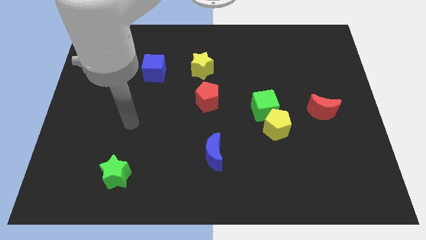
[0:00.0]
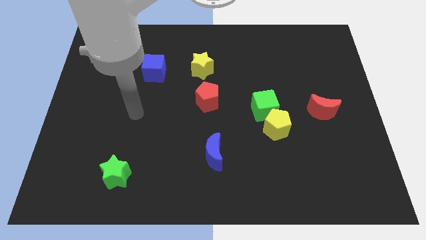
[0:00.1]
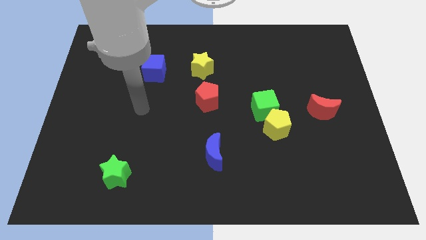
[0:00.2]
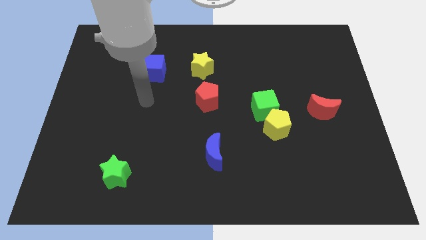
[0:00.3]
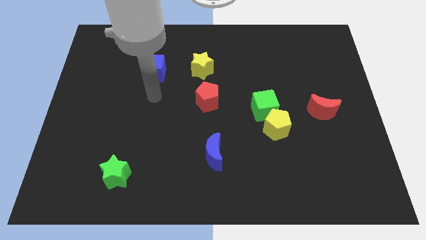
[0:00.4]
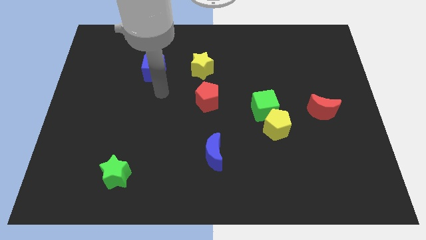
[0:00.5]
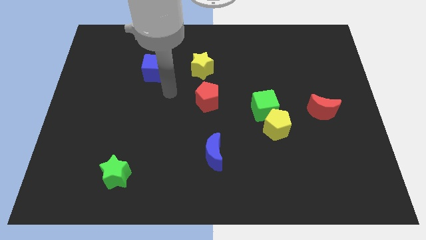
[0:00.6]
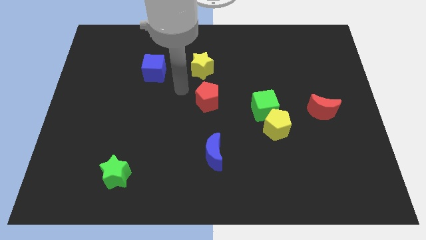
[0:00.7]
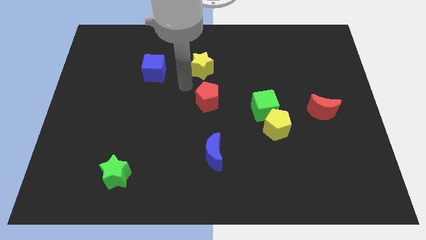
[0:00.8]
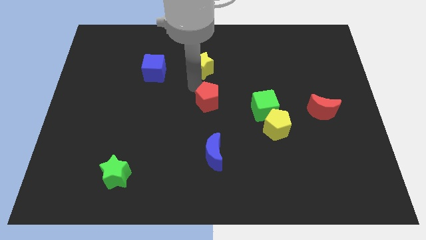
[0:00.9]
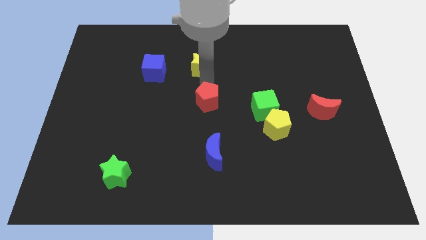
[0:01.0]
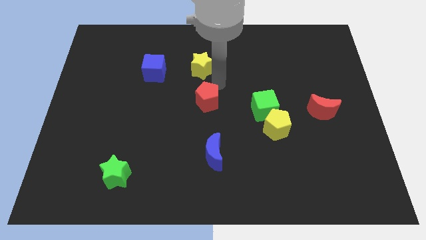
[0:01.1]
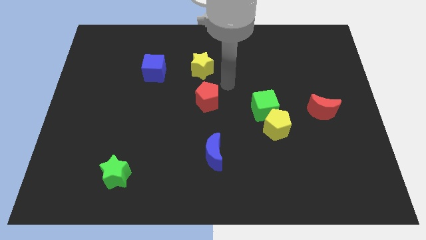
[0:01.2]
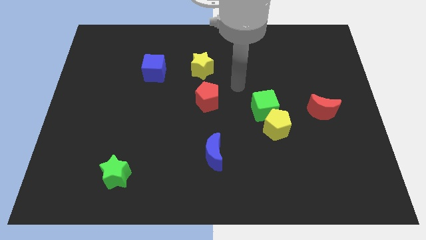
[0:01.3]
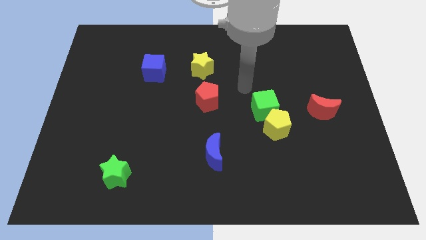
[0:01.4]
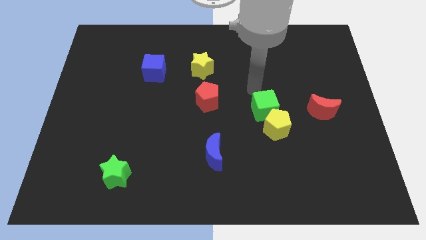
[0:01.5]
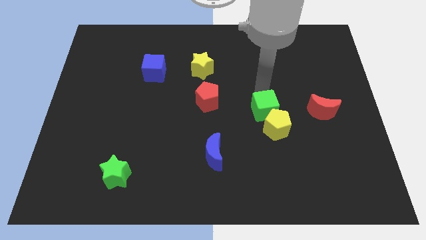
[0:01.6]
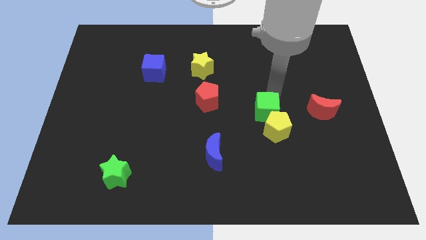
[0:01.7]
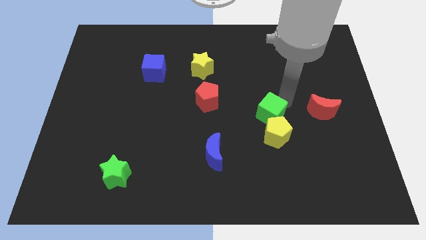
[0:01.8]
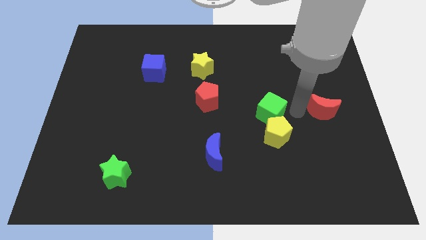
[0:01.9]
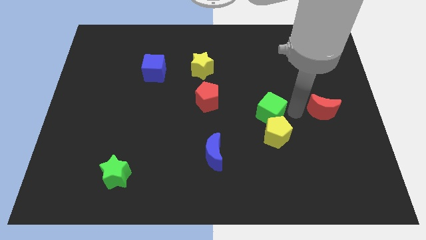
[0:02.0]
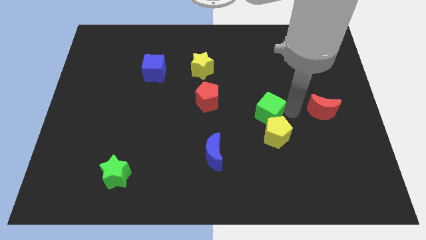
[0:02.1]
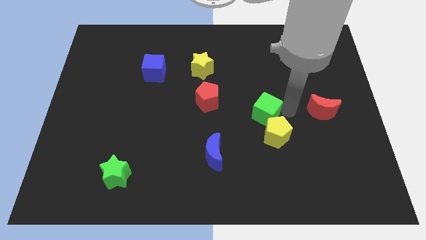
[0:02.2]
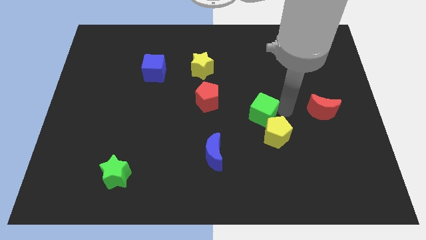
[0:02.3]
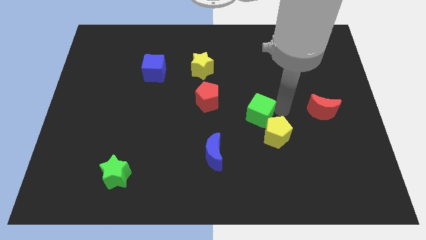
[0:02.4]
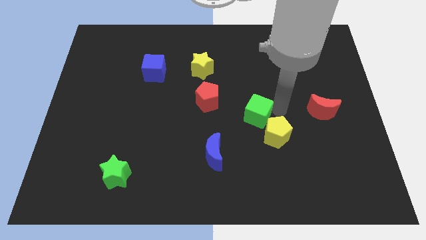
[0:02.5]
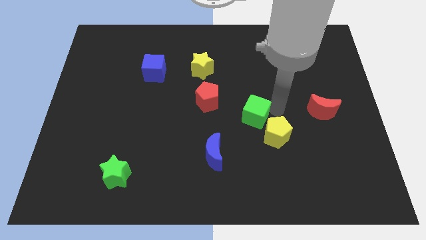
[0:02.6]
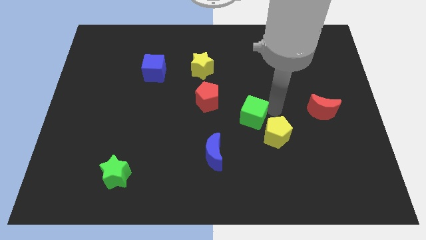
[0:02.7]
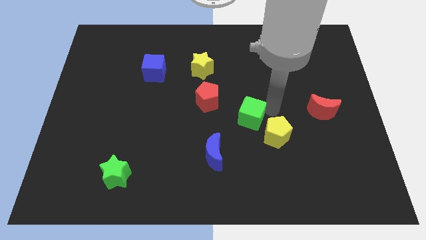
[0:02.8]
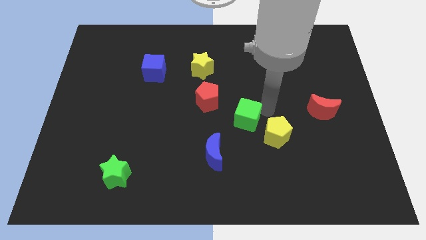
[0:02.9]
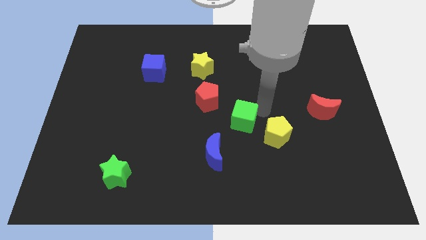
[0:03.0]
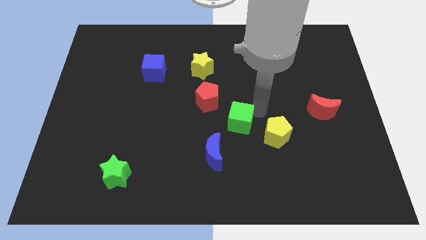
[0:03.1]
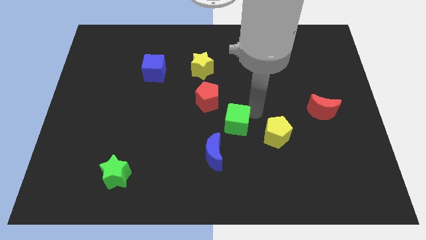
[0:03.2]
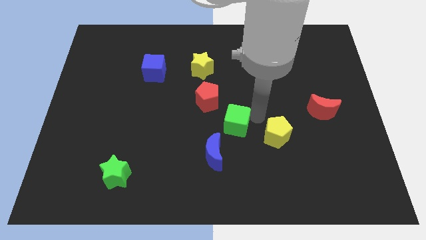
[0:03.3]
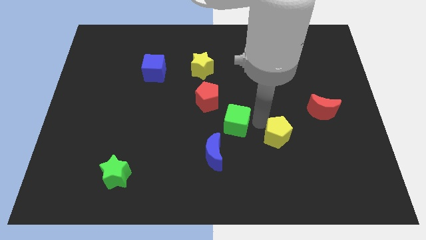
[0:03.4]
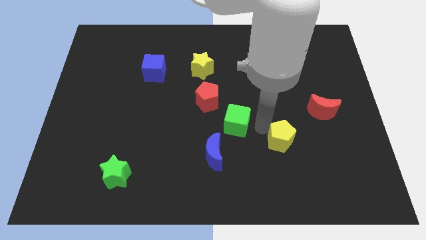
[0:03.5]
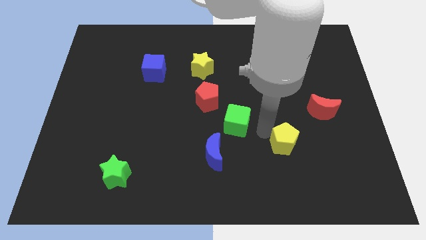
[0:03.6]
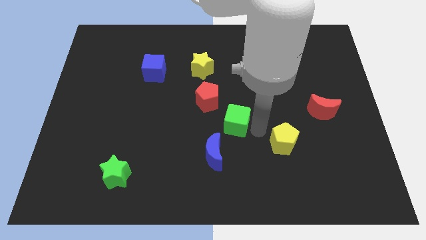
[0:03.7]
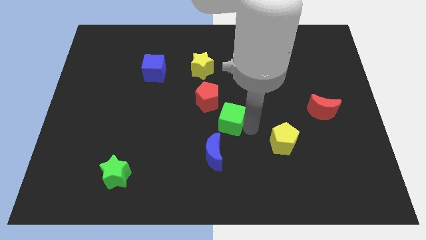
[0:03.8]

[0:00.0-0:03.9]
slide the green cube to the left a little

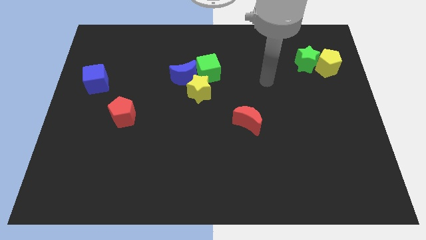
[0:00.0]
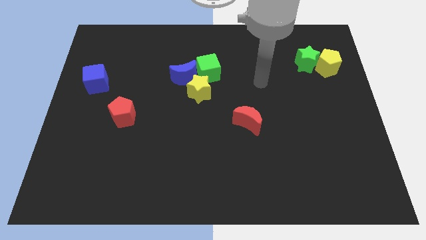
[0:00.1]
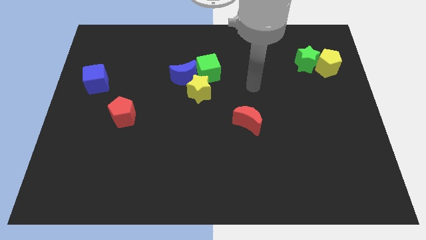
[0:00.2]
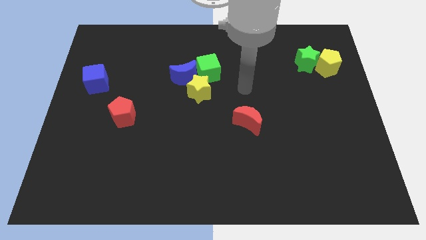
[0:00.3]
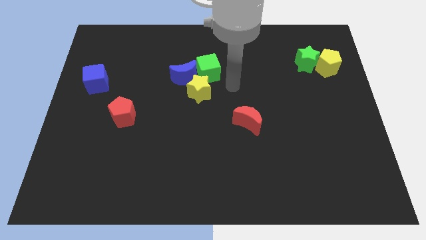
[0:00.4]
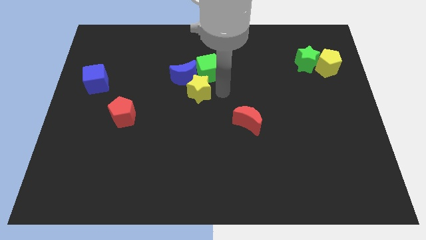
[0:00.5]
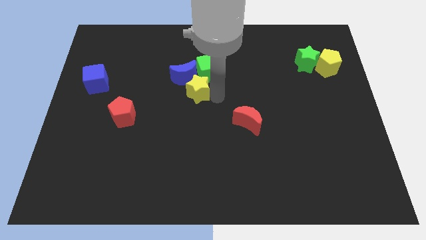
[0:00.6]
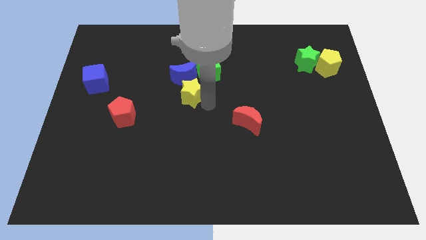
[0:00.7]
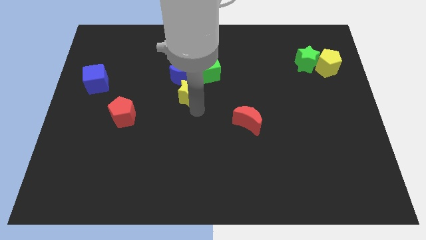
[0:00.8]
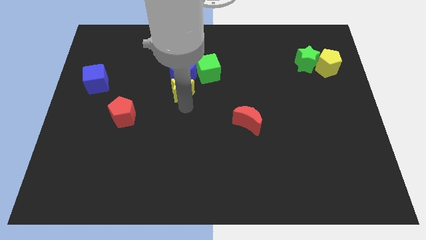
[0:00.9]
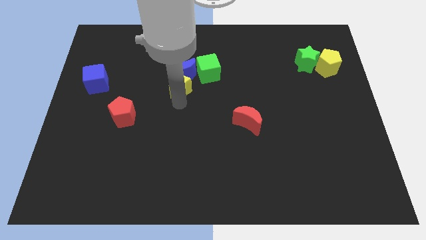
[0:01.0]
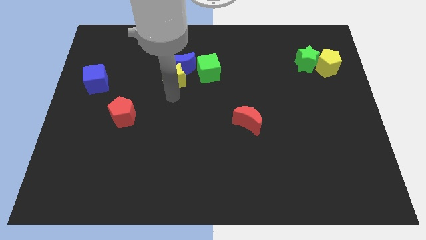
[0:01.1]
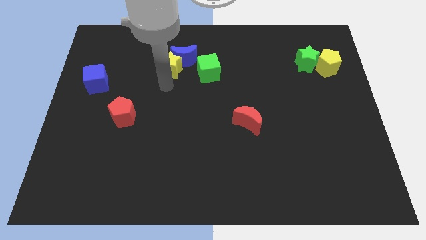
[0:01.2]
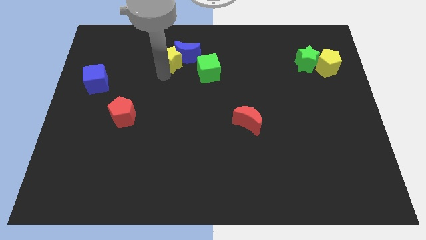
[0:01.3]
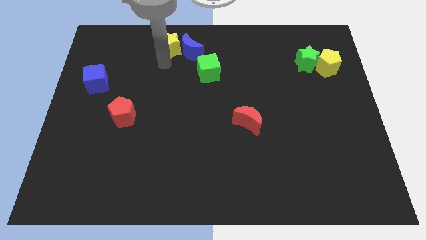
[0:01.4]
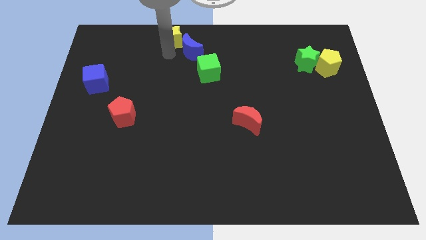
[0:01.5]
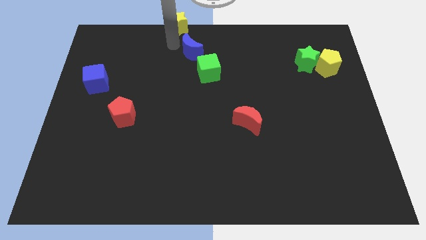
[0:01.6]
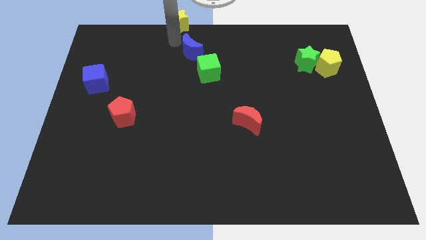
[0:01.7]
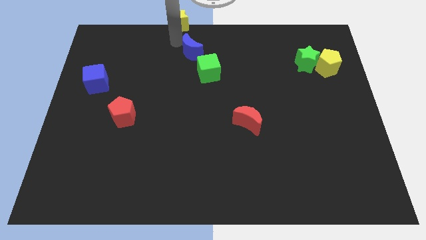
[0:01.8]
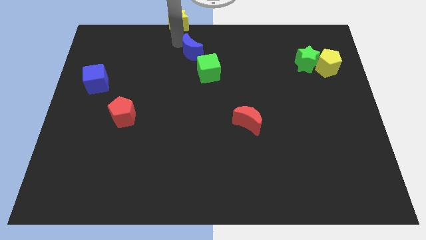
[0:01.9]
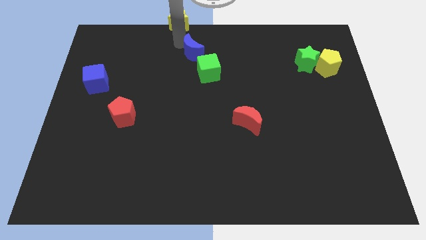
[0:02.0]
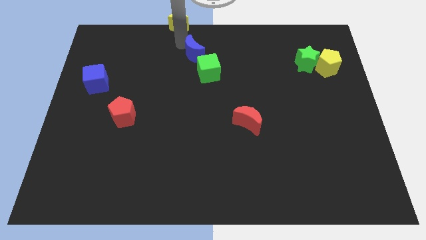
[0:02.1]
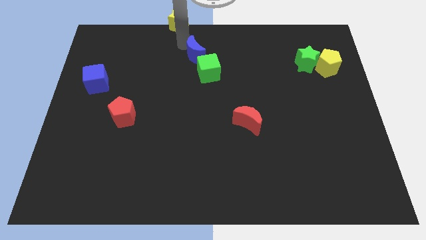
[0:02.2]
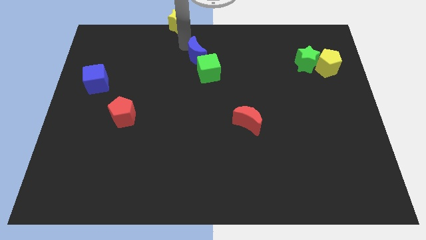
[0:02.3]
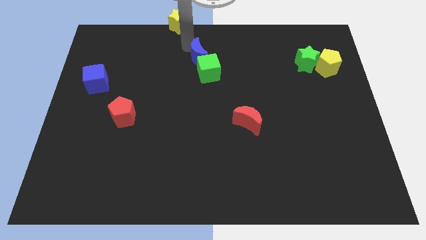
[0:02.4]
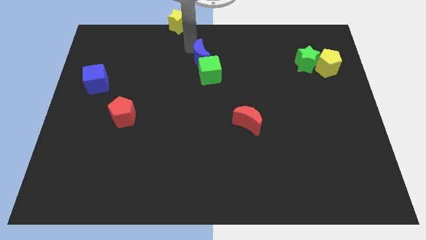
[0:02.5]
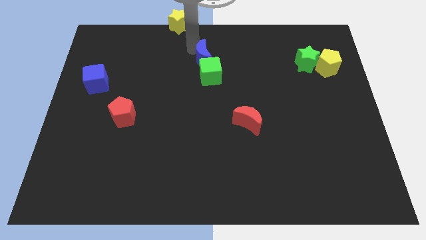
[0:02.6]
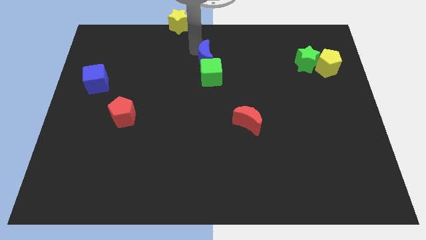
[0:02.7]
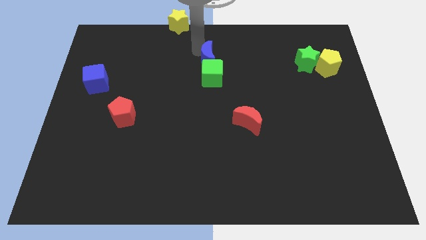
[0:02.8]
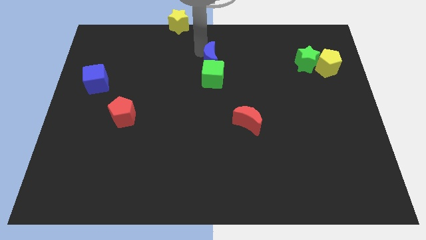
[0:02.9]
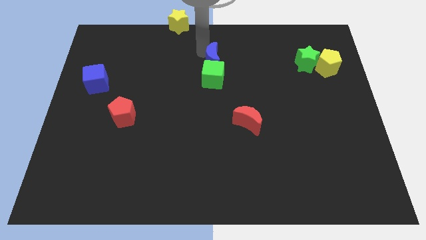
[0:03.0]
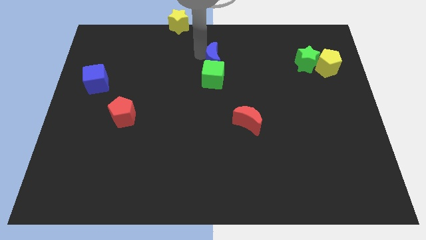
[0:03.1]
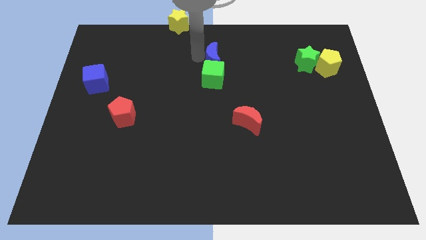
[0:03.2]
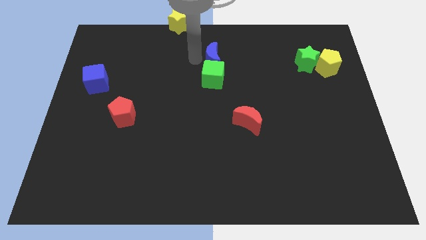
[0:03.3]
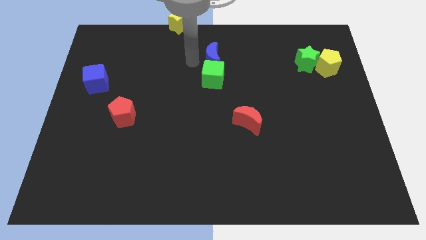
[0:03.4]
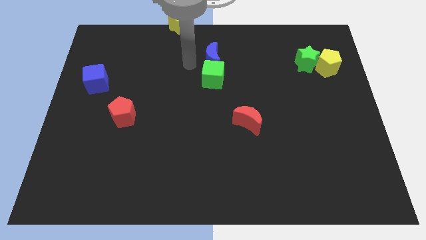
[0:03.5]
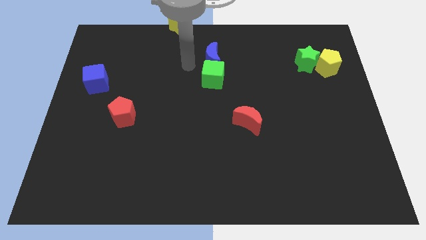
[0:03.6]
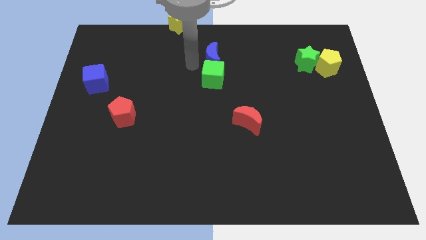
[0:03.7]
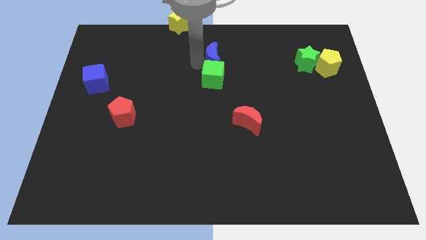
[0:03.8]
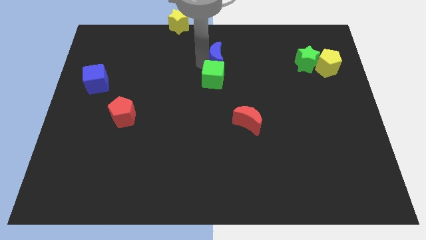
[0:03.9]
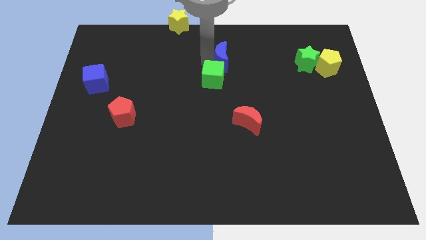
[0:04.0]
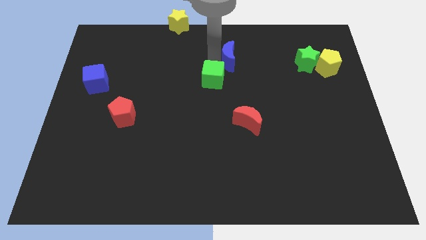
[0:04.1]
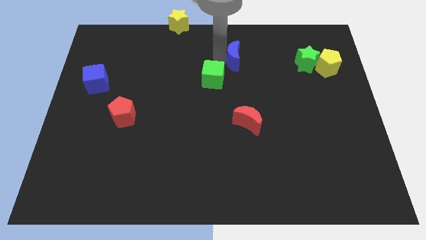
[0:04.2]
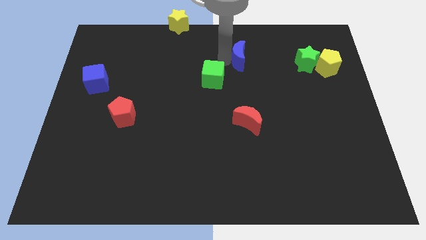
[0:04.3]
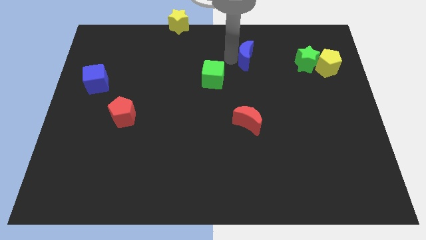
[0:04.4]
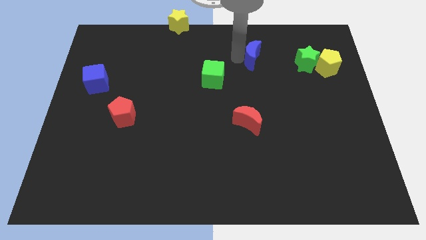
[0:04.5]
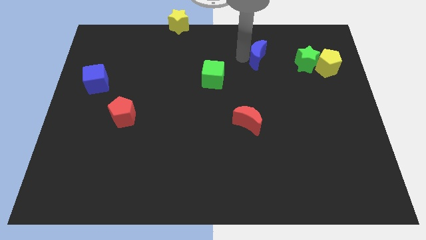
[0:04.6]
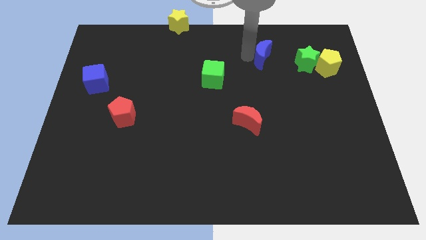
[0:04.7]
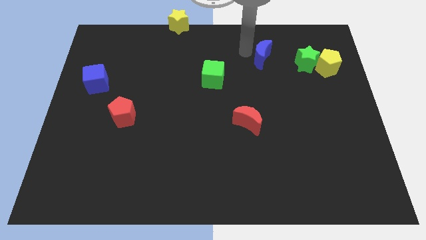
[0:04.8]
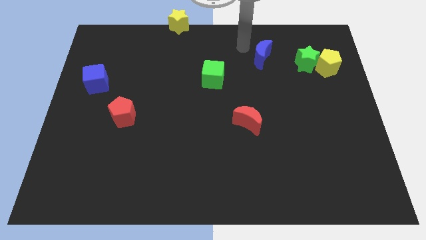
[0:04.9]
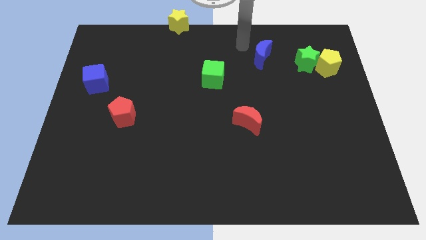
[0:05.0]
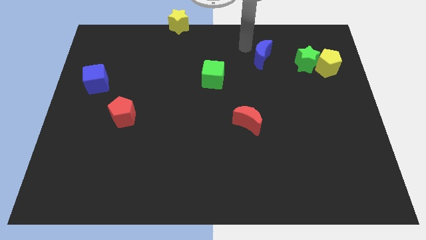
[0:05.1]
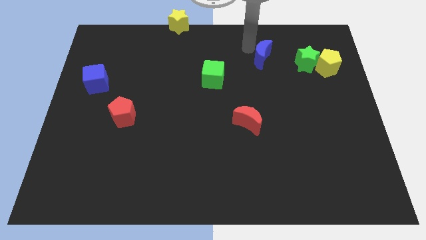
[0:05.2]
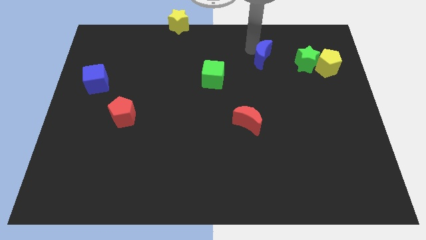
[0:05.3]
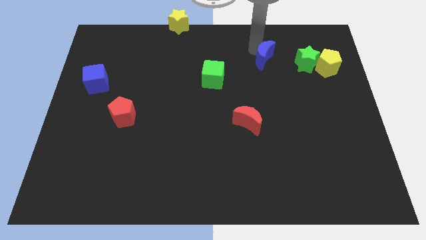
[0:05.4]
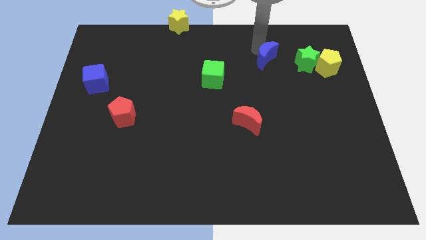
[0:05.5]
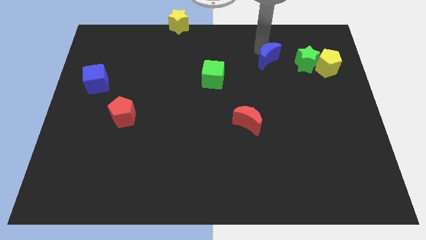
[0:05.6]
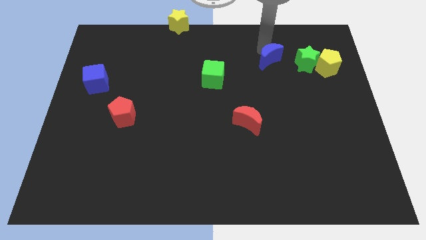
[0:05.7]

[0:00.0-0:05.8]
push the blue moon right
